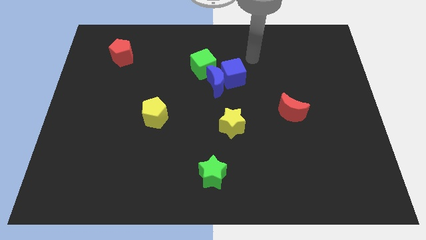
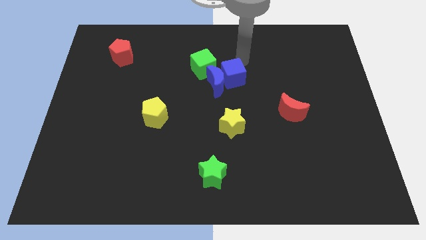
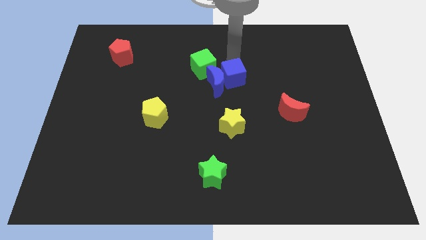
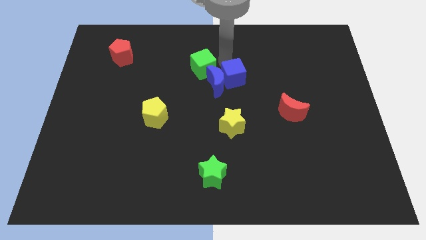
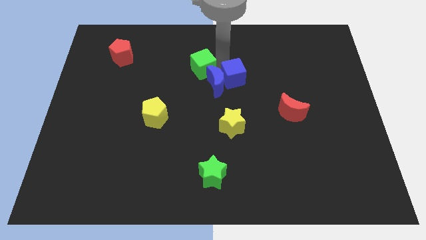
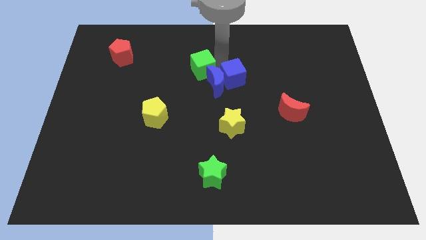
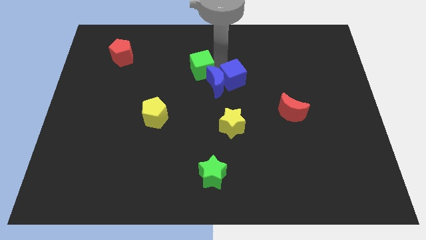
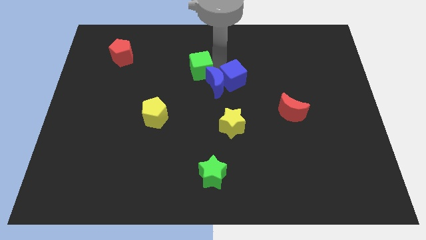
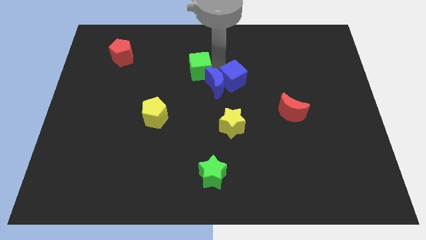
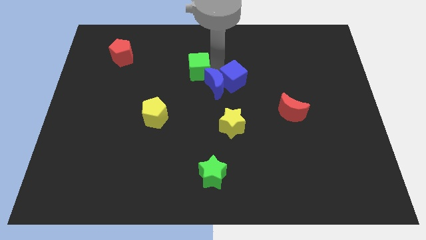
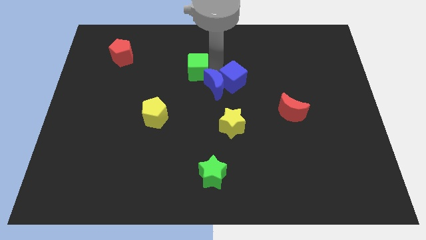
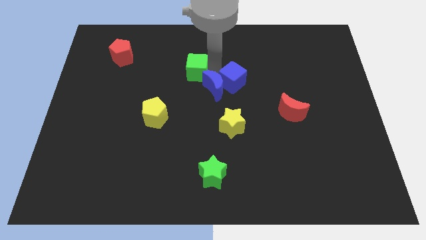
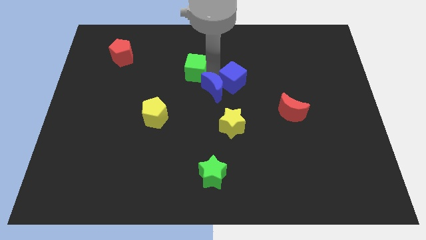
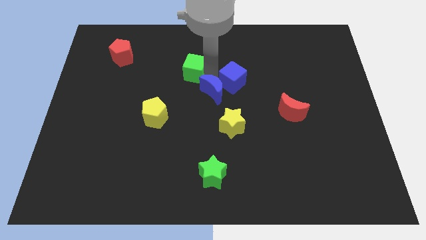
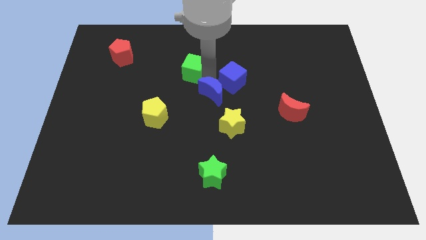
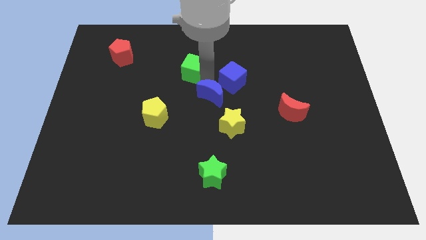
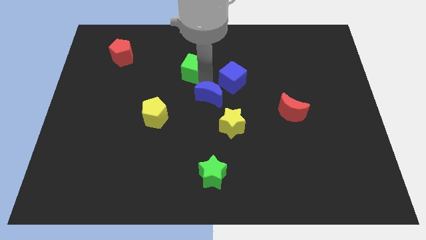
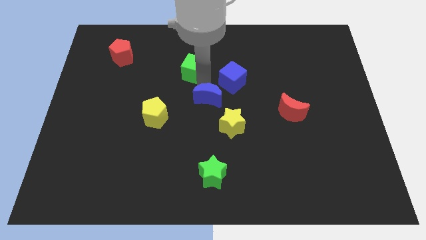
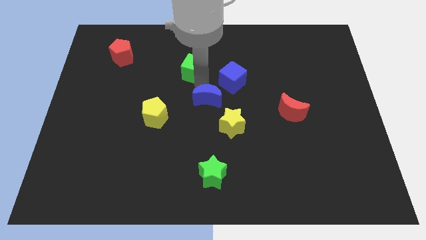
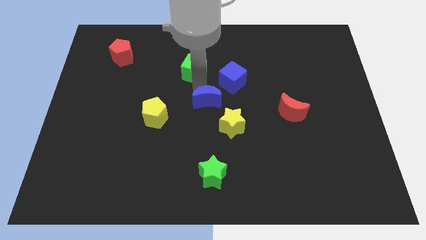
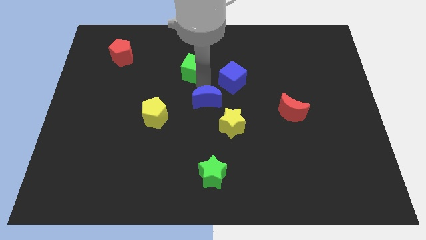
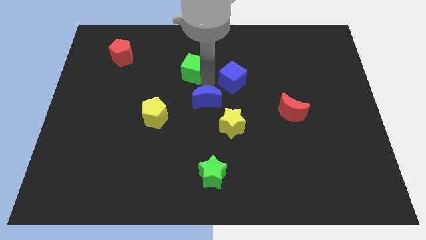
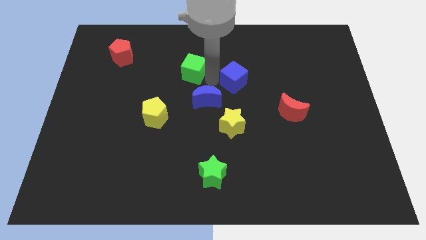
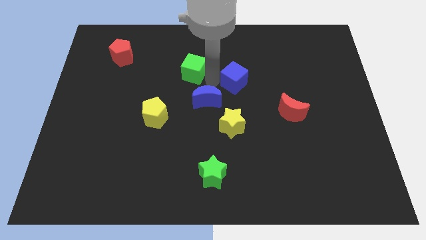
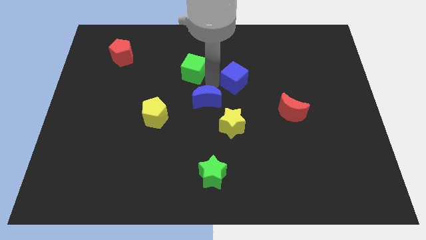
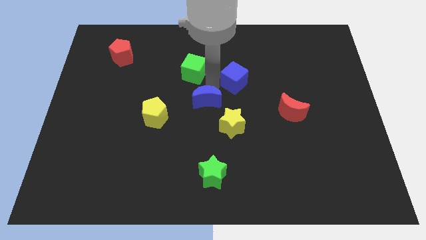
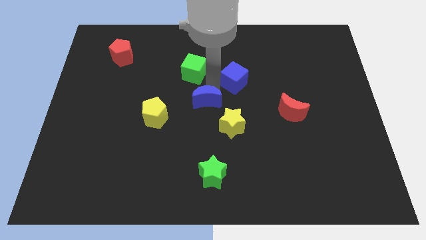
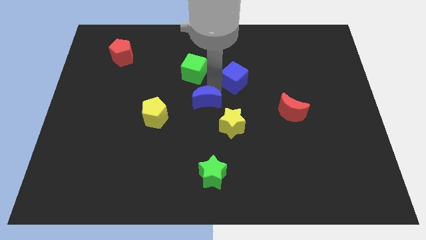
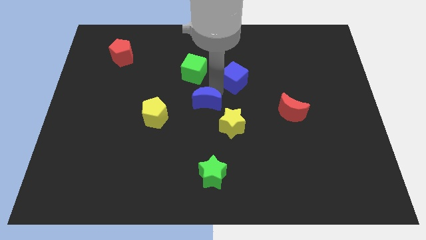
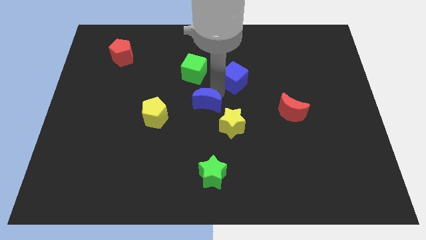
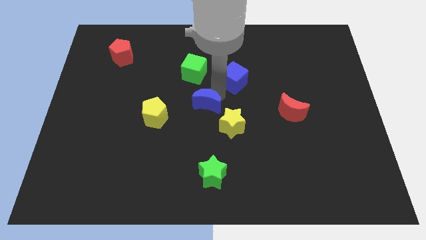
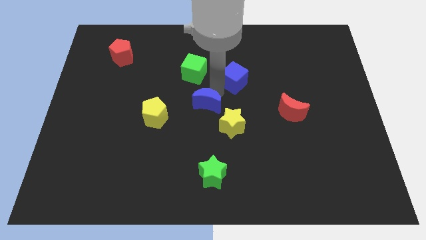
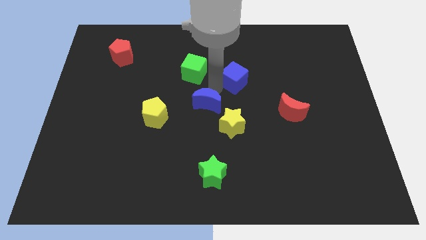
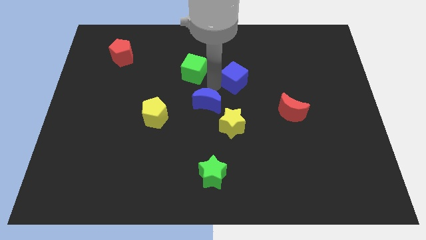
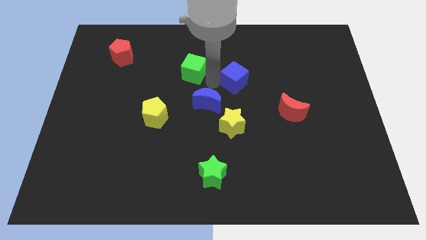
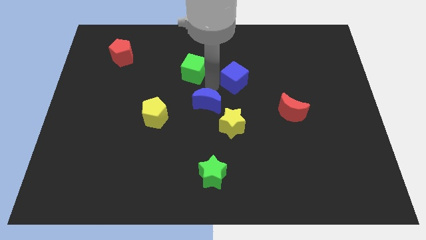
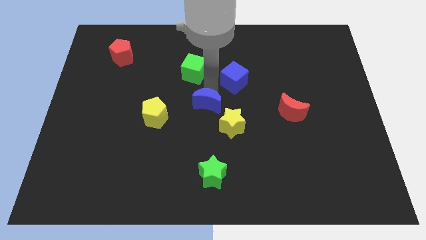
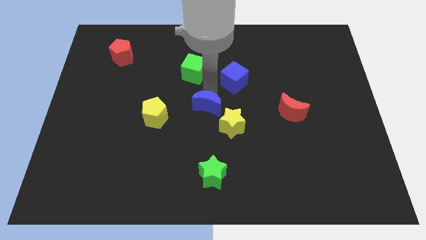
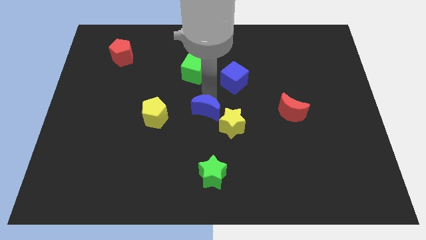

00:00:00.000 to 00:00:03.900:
separate the blue moon from the blue cube and green cube

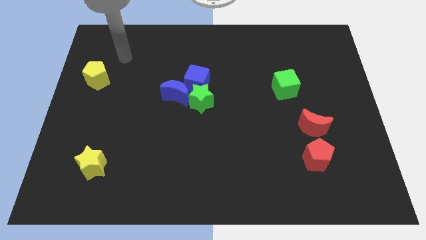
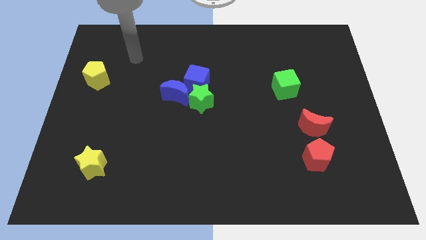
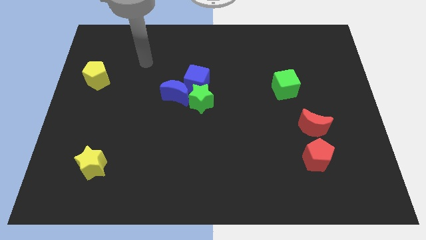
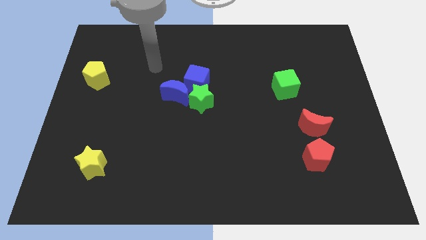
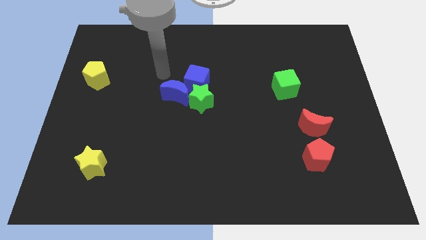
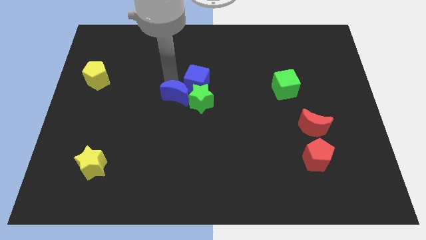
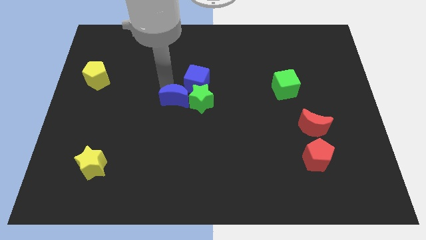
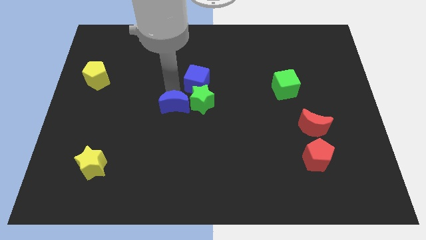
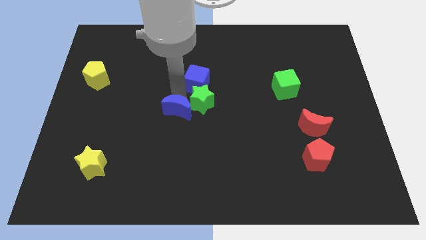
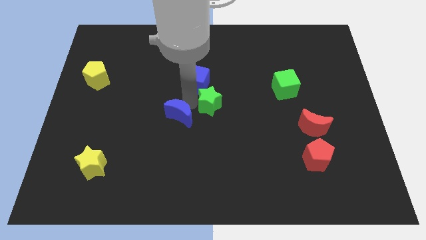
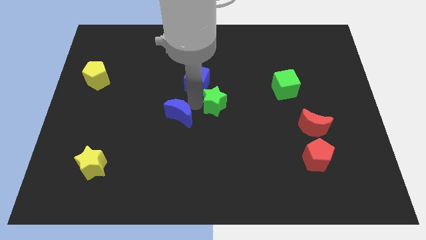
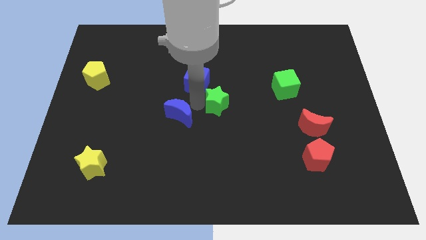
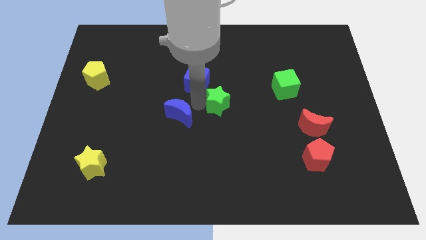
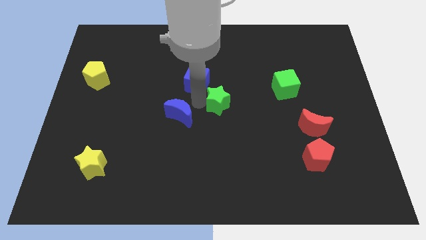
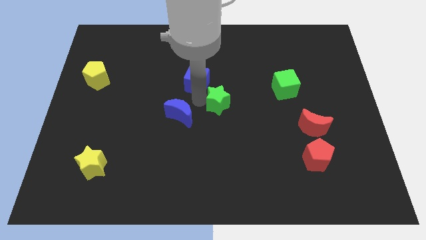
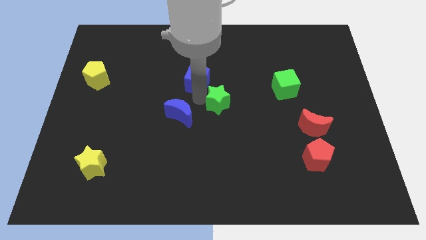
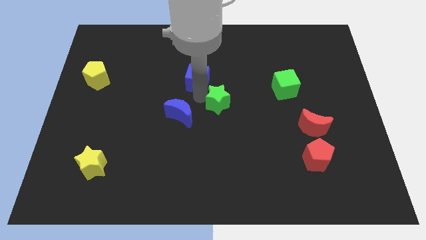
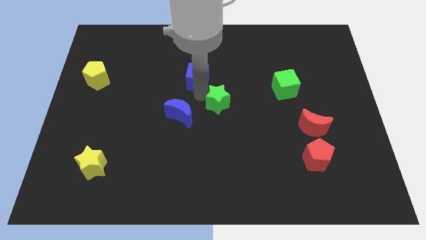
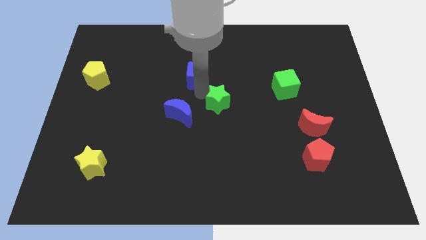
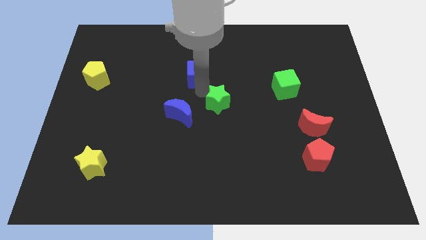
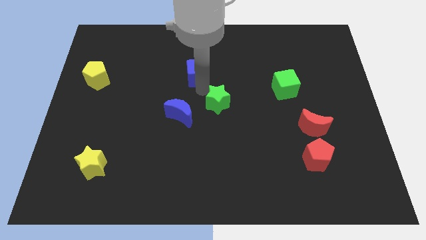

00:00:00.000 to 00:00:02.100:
move the blue cube away from the green star and blue moon

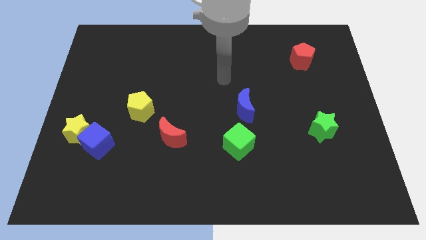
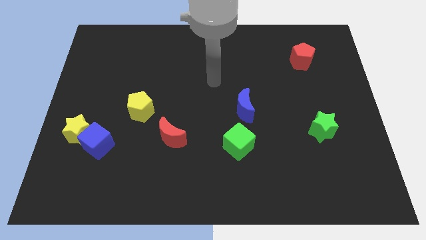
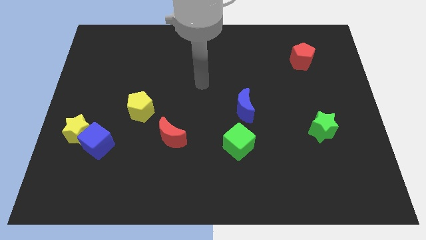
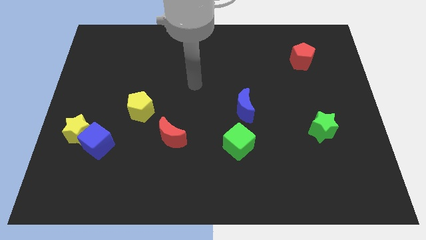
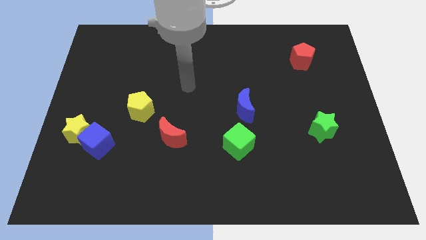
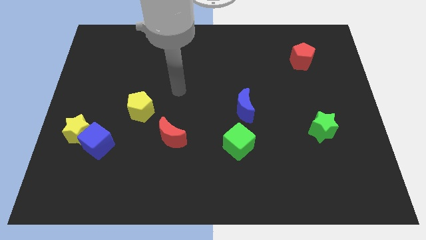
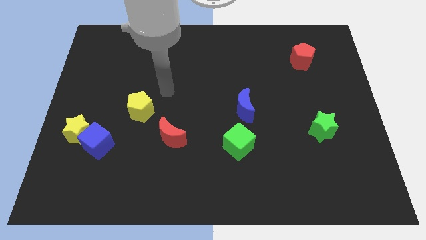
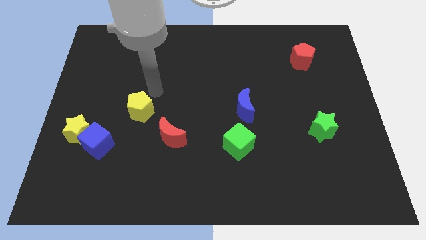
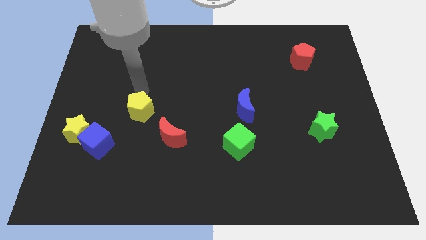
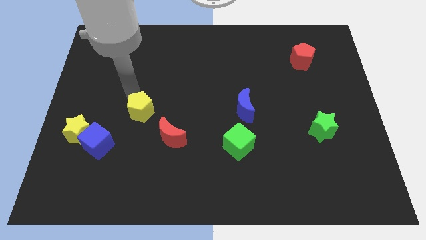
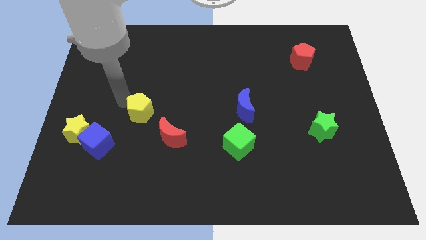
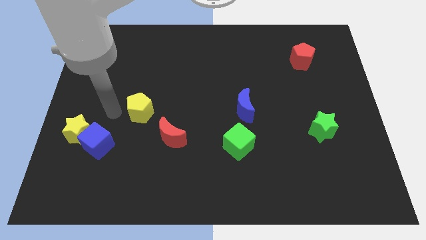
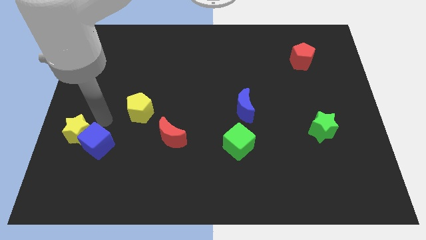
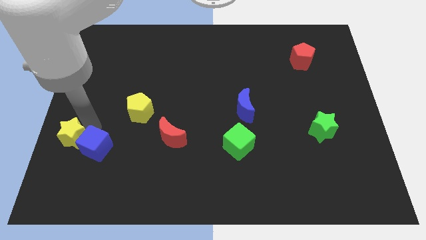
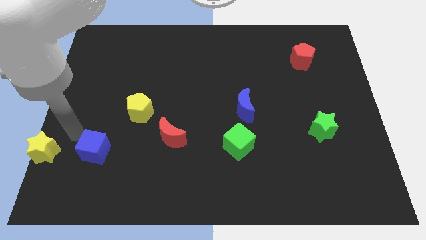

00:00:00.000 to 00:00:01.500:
move the blue cube away from the yellow star

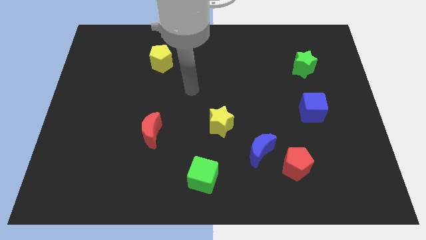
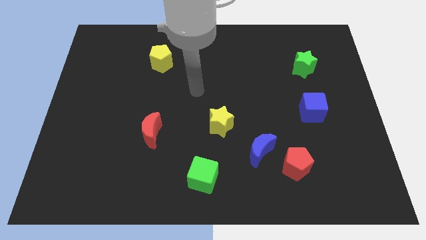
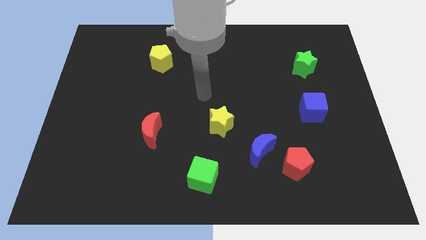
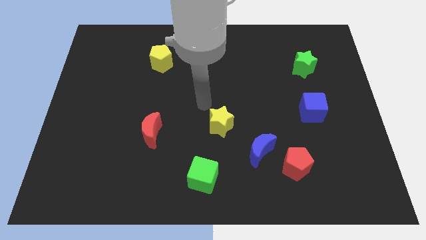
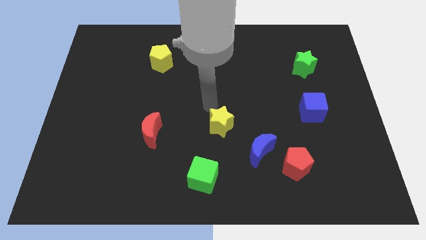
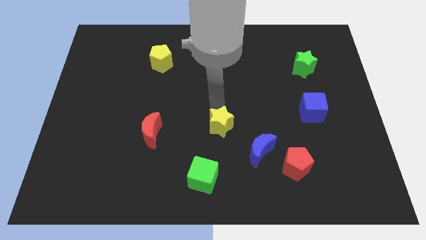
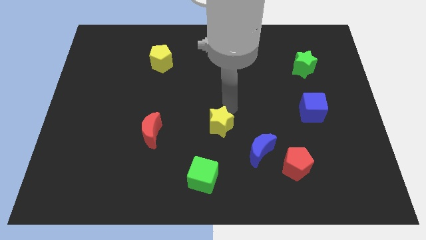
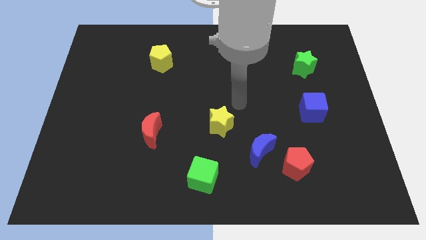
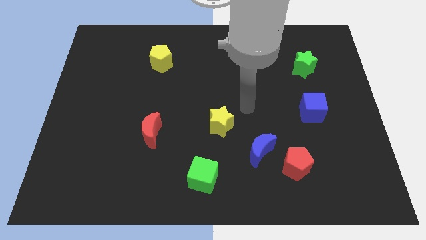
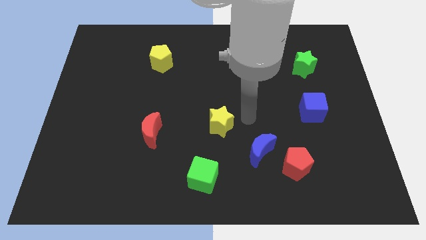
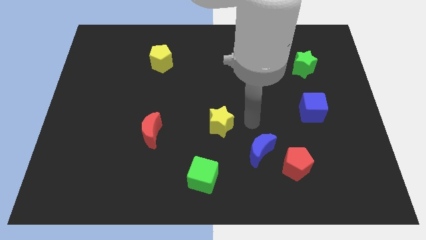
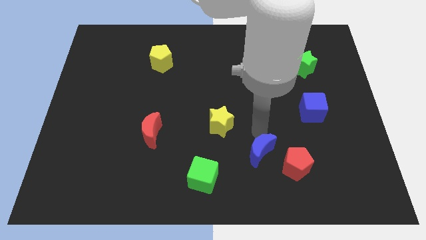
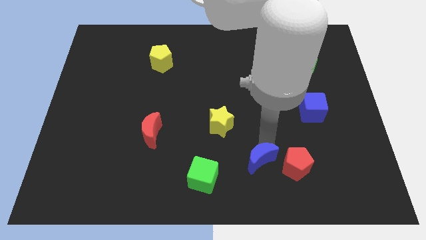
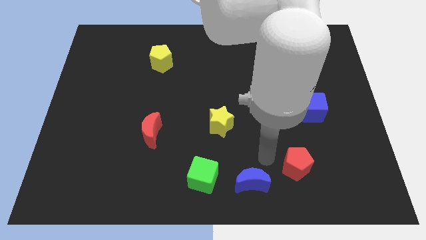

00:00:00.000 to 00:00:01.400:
move the red pentagon away from the blue moon

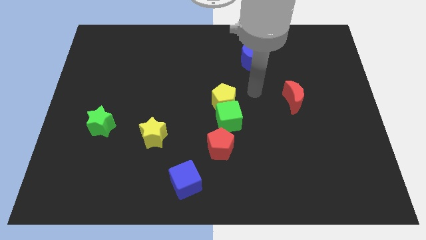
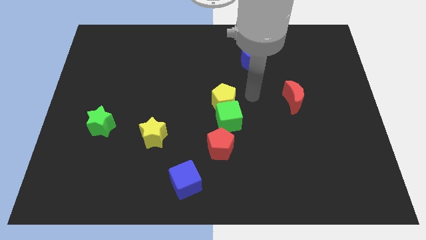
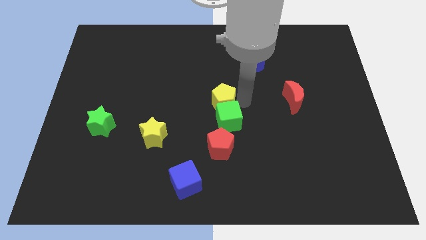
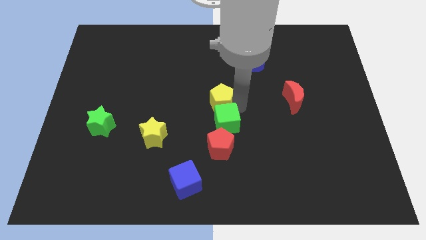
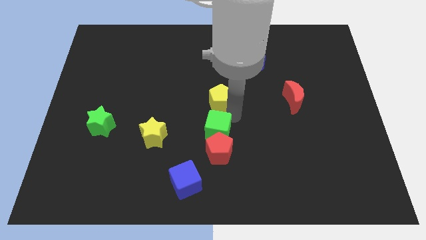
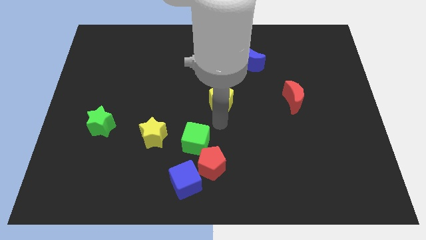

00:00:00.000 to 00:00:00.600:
move the yellow pentagon away from the green cube
